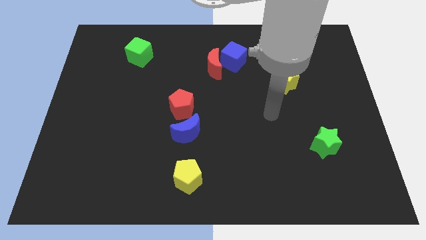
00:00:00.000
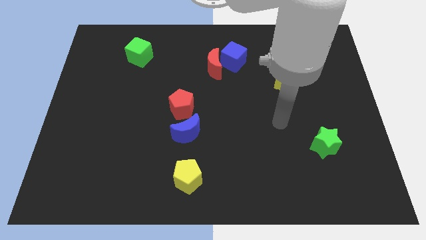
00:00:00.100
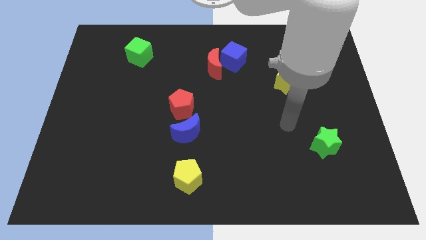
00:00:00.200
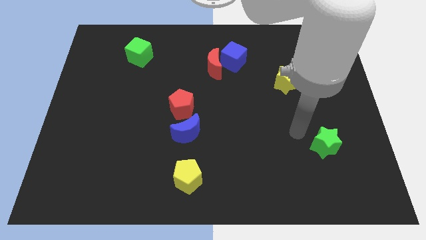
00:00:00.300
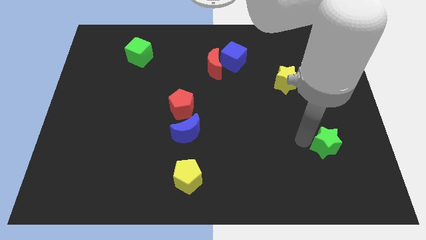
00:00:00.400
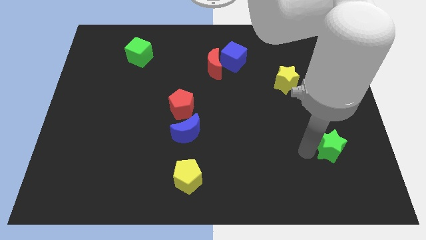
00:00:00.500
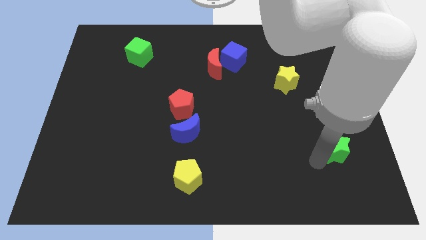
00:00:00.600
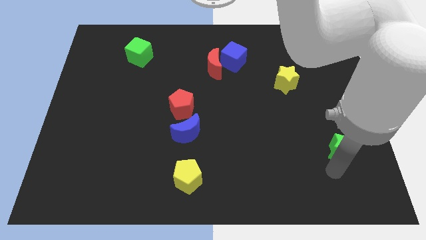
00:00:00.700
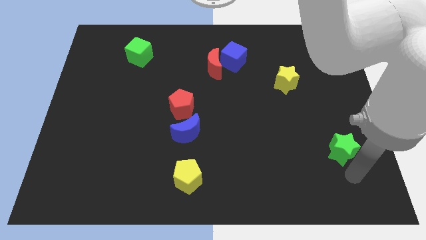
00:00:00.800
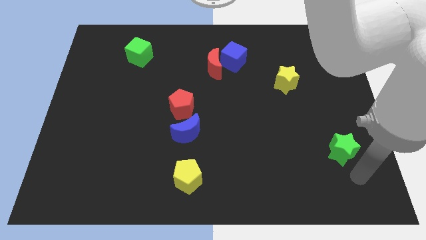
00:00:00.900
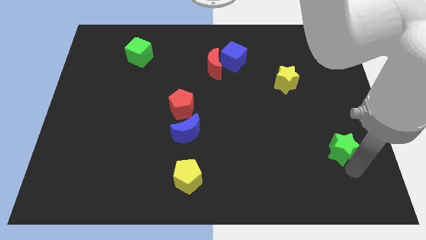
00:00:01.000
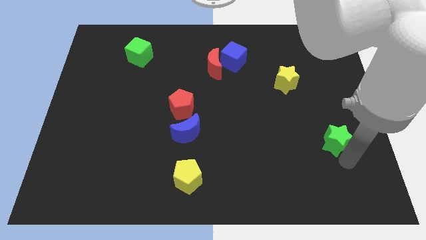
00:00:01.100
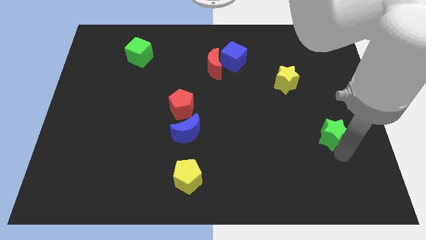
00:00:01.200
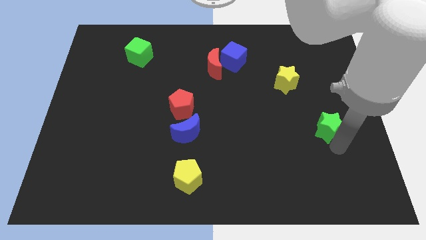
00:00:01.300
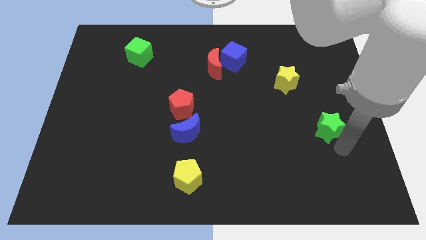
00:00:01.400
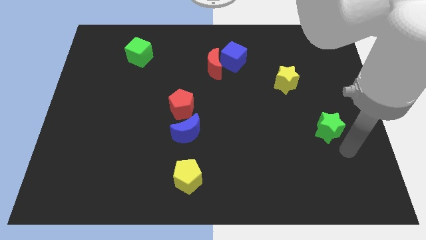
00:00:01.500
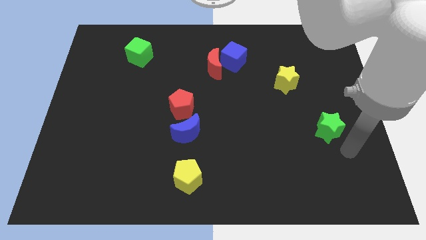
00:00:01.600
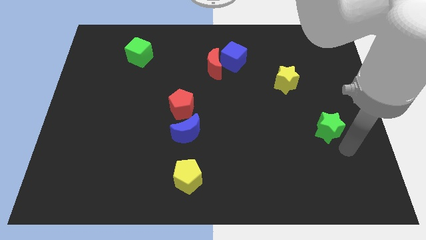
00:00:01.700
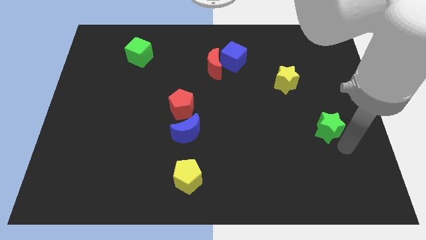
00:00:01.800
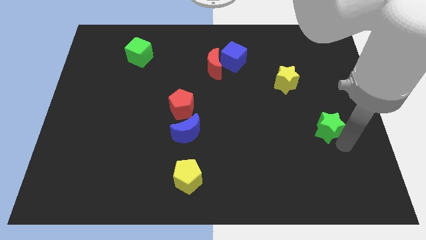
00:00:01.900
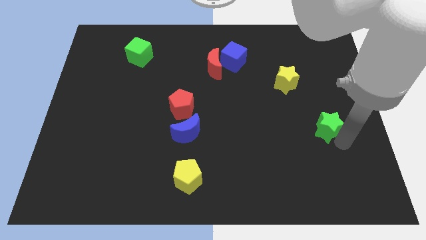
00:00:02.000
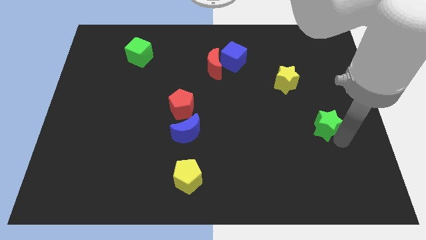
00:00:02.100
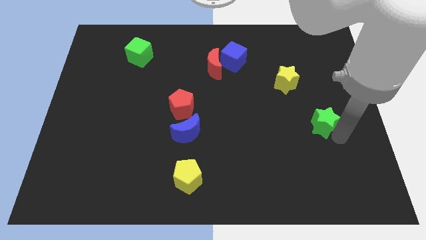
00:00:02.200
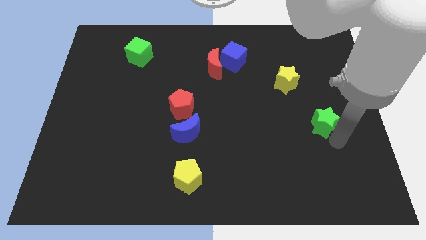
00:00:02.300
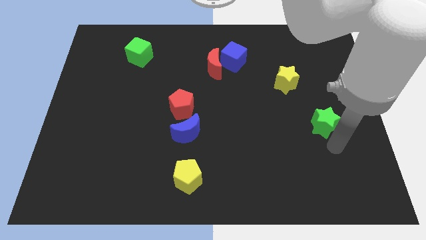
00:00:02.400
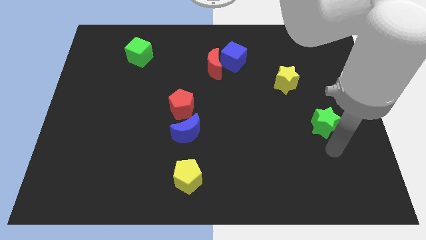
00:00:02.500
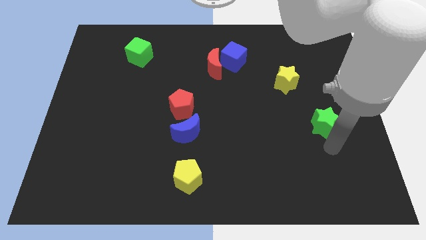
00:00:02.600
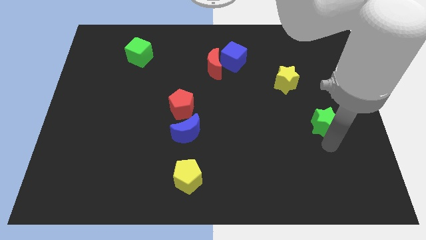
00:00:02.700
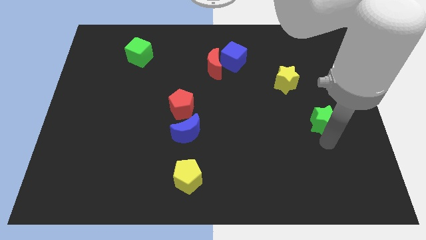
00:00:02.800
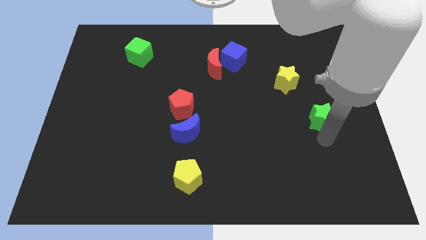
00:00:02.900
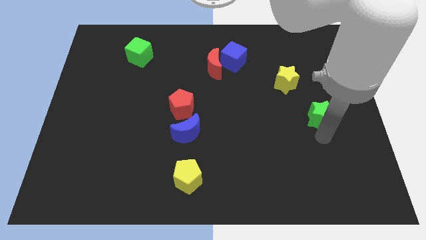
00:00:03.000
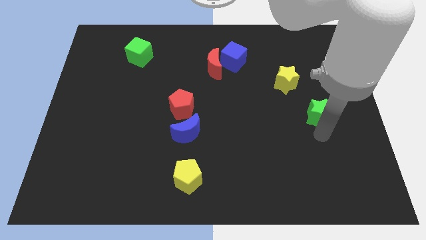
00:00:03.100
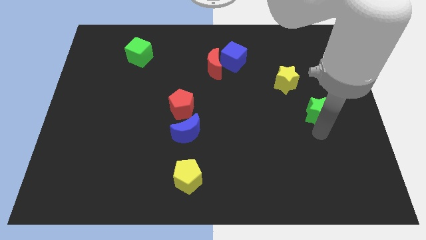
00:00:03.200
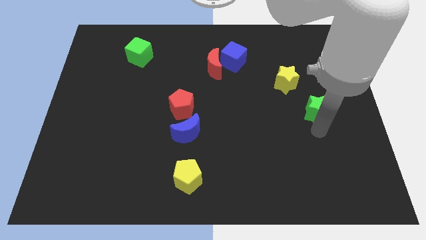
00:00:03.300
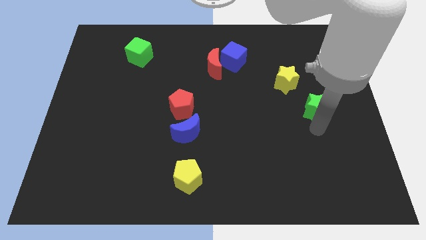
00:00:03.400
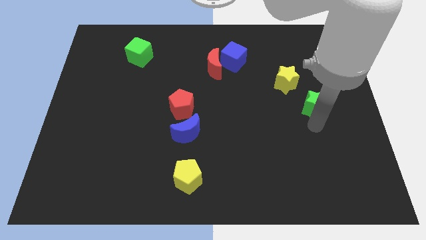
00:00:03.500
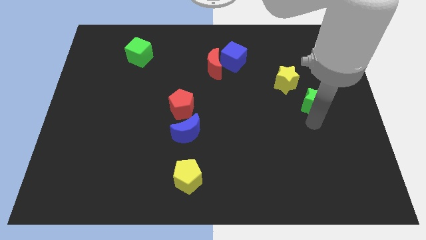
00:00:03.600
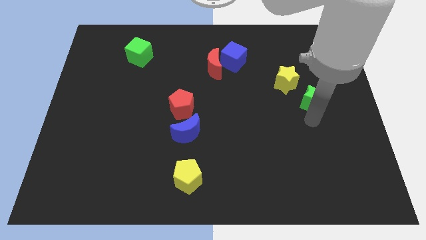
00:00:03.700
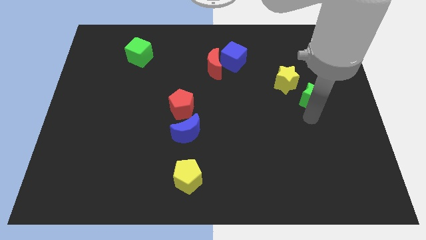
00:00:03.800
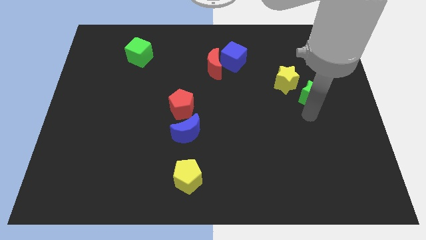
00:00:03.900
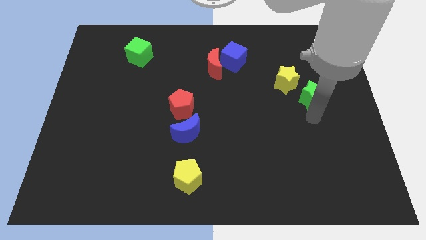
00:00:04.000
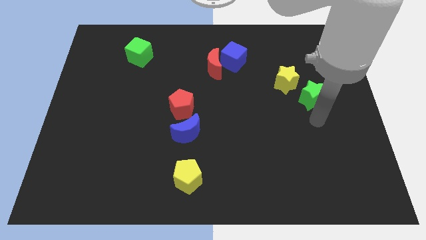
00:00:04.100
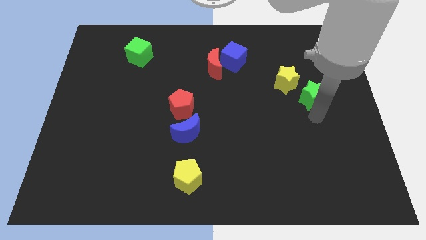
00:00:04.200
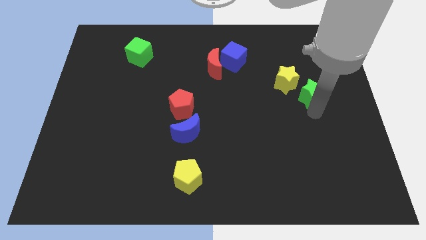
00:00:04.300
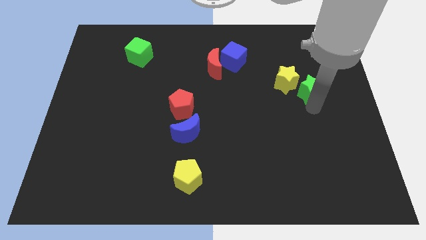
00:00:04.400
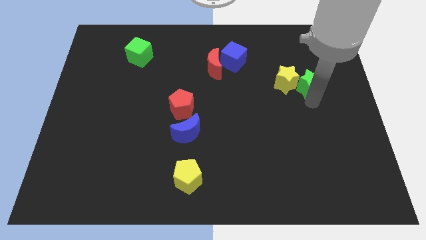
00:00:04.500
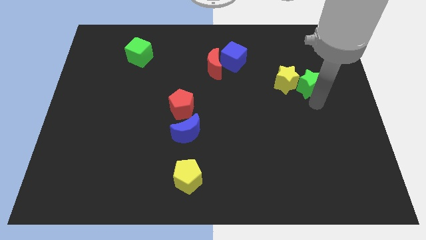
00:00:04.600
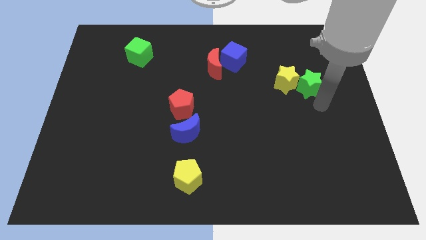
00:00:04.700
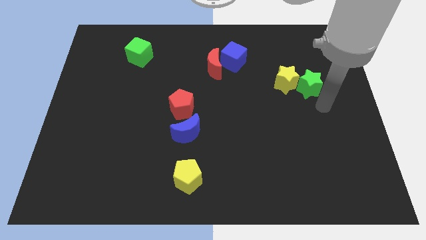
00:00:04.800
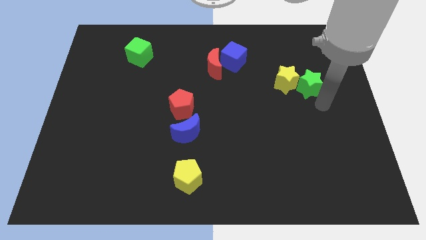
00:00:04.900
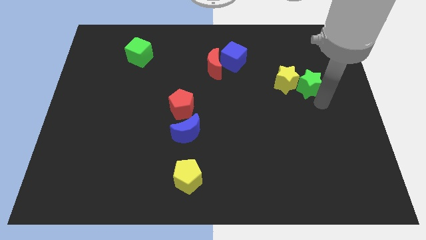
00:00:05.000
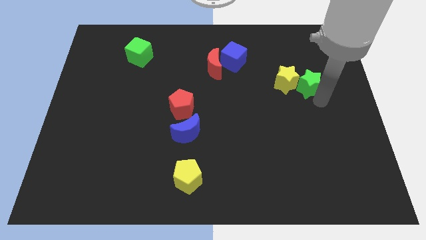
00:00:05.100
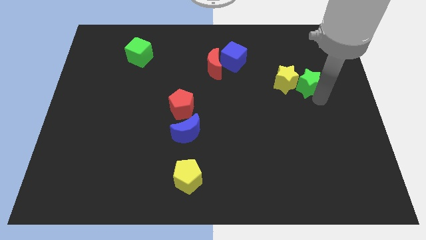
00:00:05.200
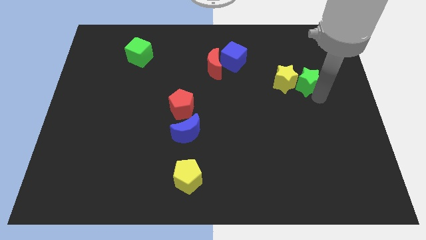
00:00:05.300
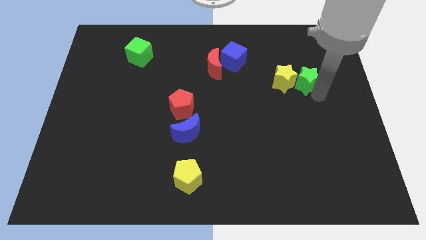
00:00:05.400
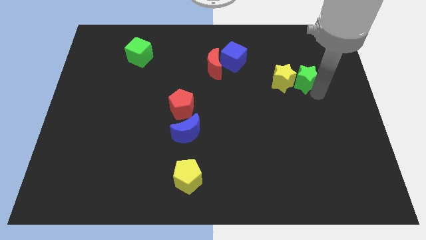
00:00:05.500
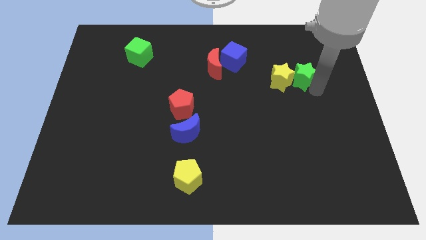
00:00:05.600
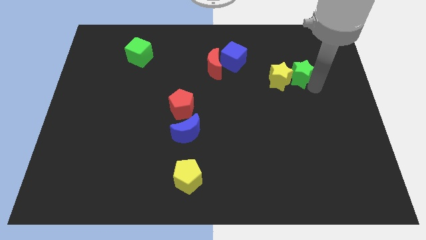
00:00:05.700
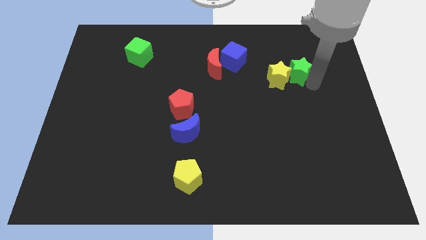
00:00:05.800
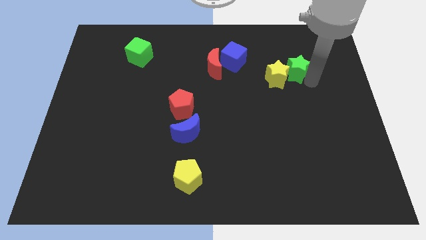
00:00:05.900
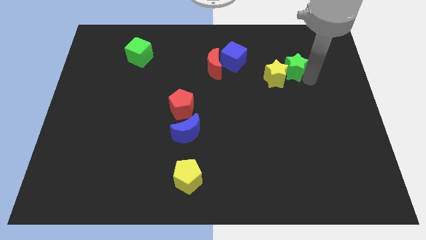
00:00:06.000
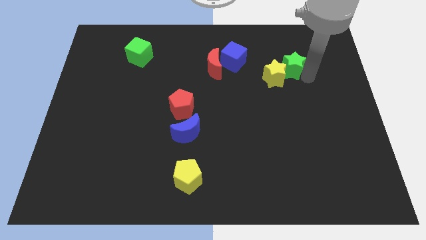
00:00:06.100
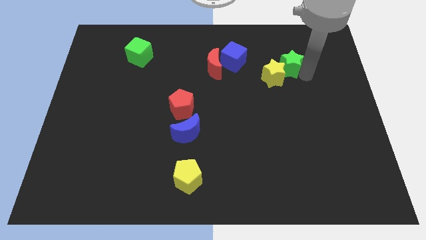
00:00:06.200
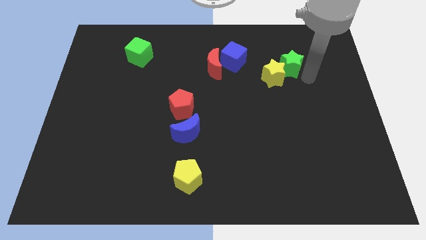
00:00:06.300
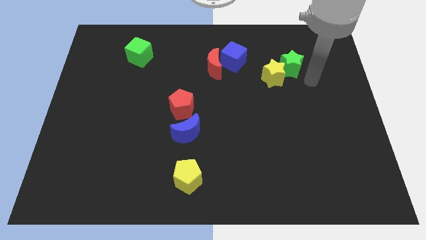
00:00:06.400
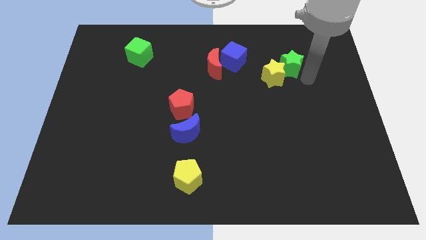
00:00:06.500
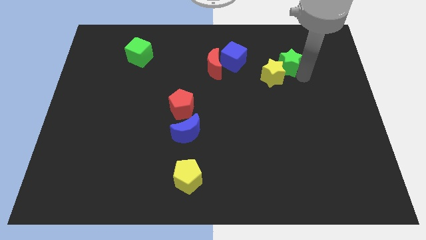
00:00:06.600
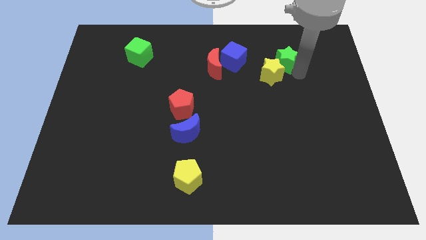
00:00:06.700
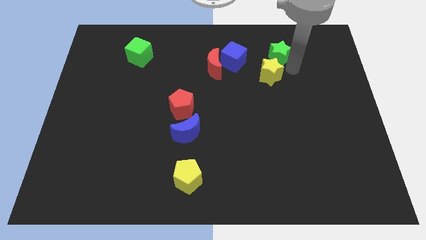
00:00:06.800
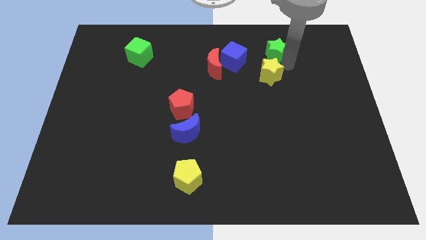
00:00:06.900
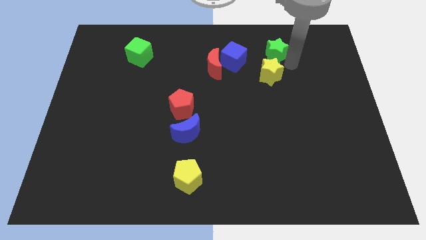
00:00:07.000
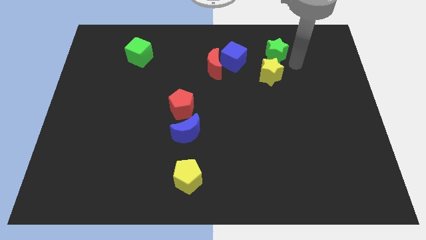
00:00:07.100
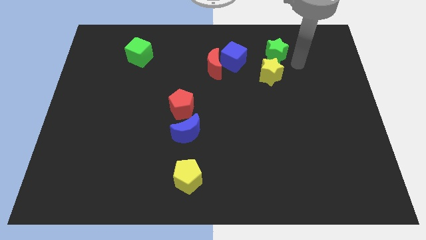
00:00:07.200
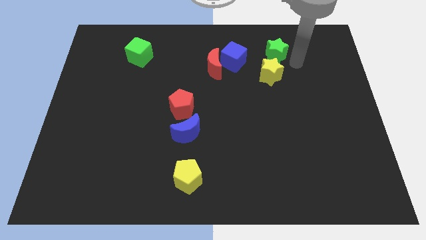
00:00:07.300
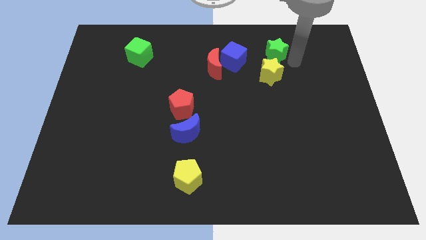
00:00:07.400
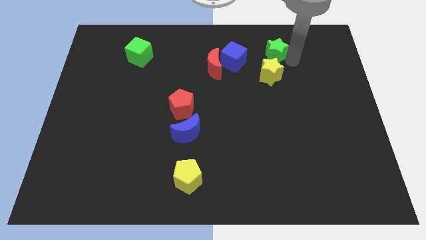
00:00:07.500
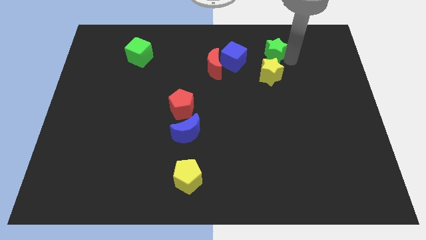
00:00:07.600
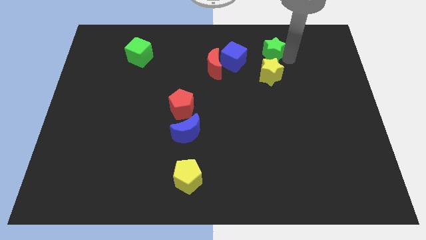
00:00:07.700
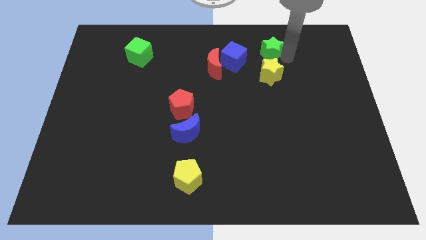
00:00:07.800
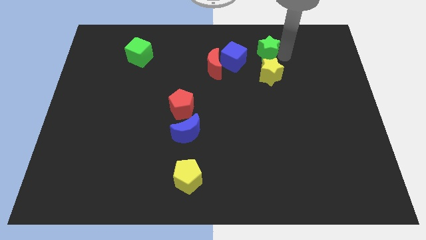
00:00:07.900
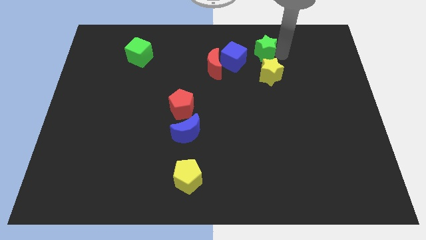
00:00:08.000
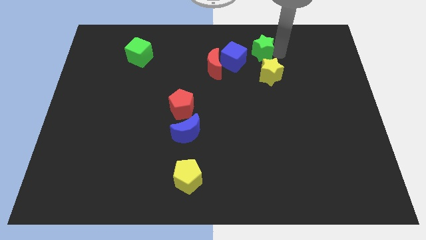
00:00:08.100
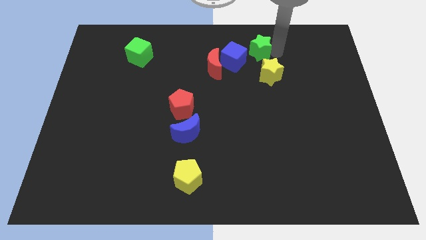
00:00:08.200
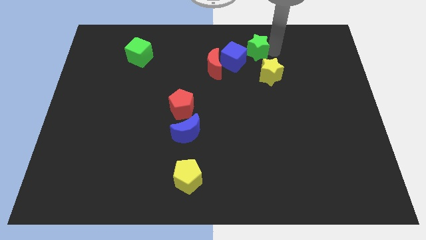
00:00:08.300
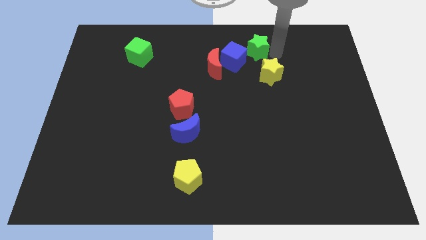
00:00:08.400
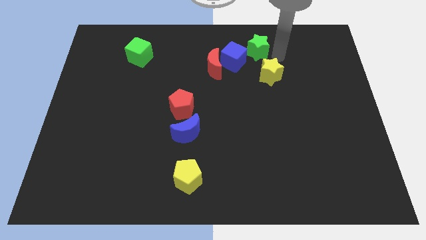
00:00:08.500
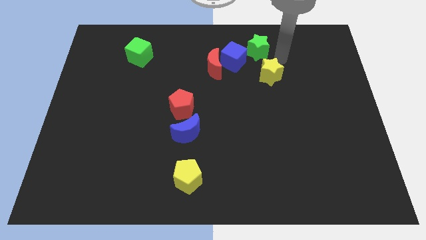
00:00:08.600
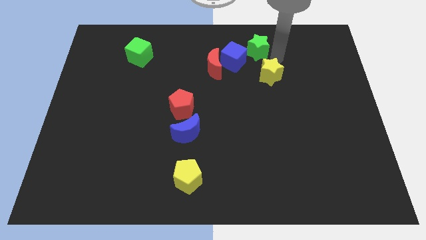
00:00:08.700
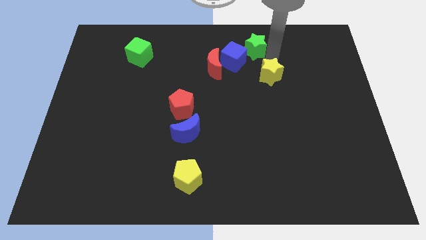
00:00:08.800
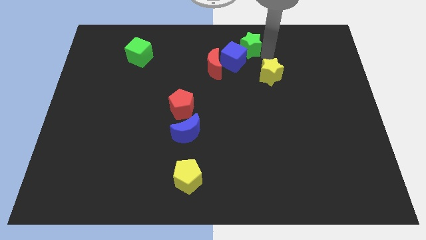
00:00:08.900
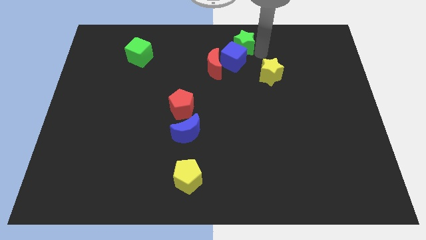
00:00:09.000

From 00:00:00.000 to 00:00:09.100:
move the green star to the top side
